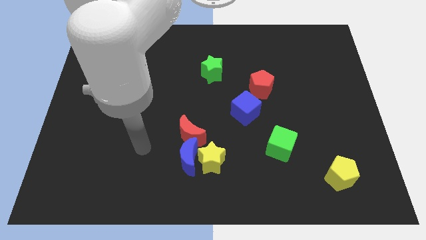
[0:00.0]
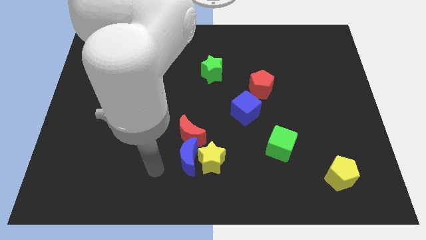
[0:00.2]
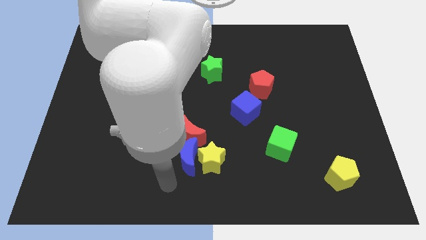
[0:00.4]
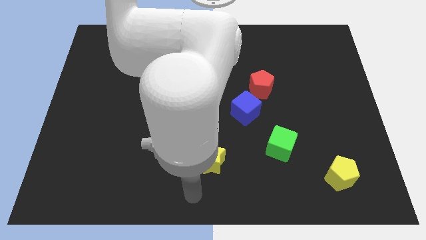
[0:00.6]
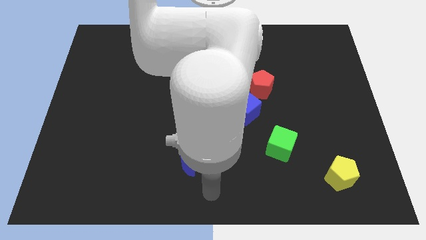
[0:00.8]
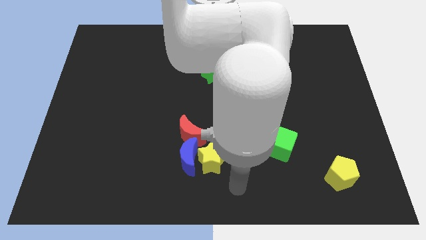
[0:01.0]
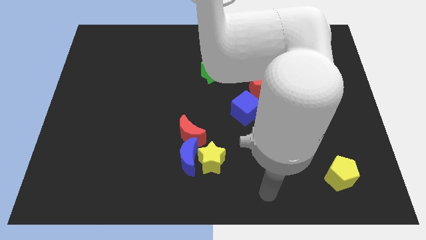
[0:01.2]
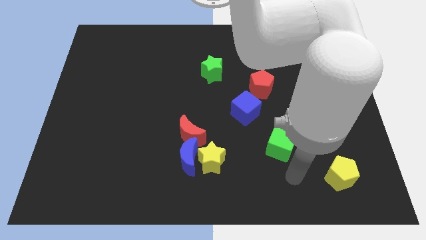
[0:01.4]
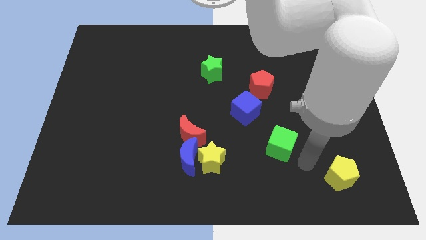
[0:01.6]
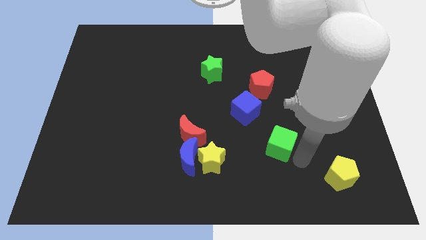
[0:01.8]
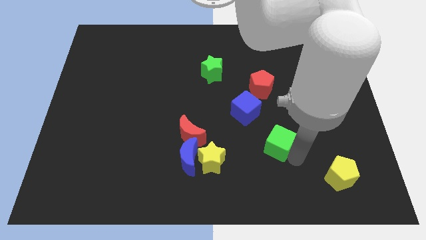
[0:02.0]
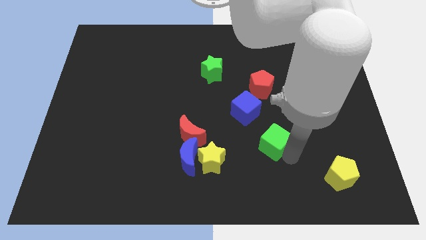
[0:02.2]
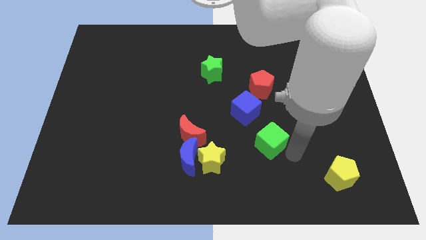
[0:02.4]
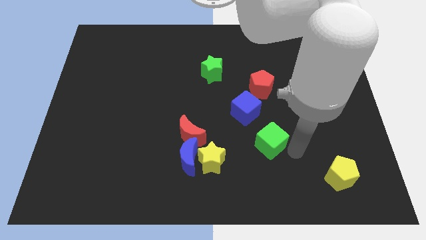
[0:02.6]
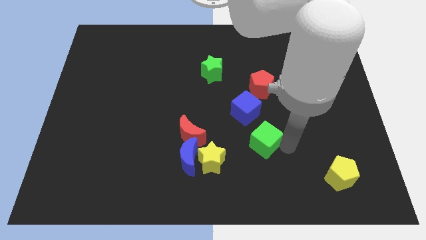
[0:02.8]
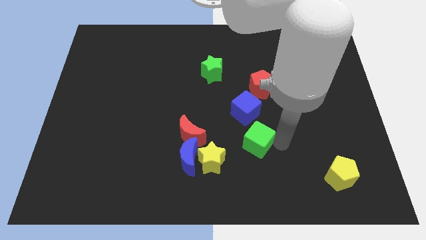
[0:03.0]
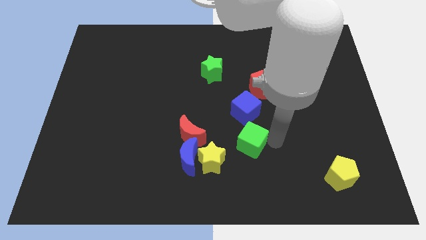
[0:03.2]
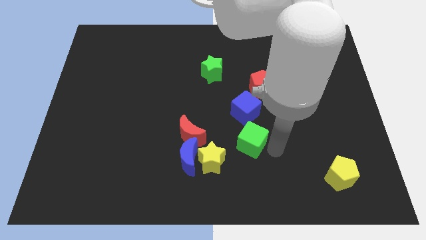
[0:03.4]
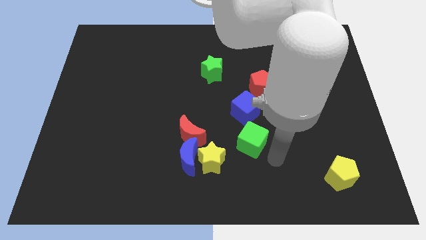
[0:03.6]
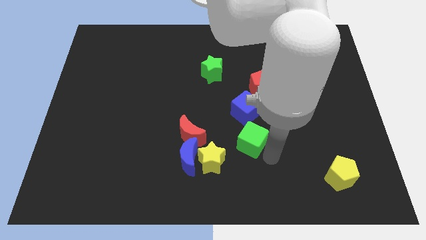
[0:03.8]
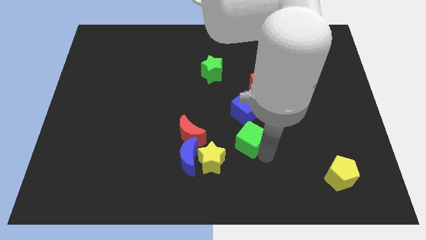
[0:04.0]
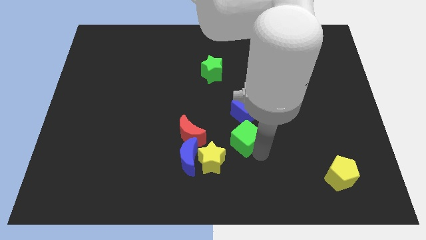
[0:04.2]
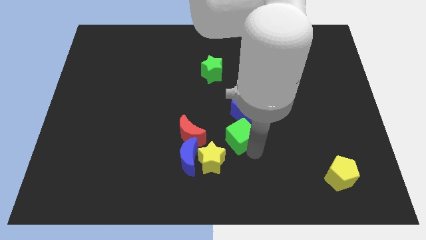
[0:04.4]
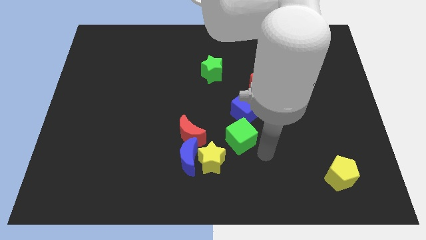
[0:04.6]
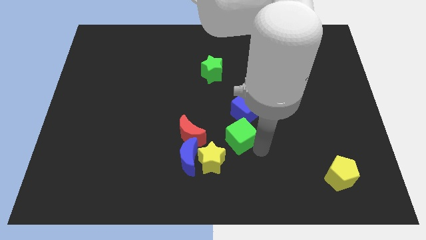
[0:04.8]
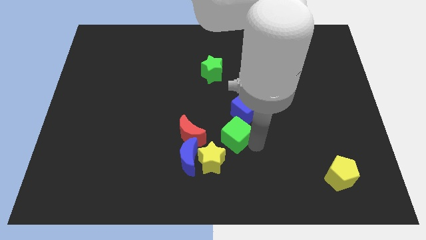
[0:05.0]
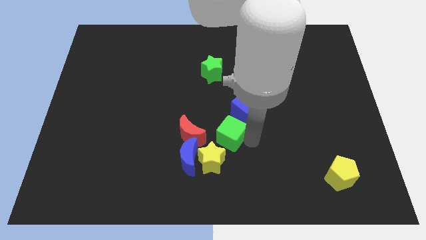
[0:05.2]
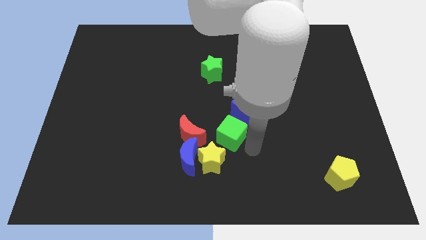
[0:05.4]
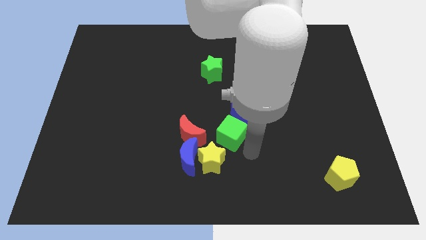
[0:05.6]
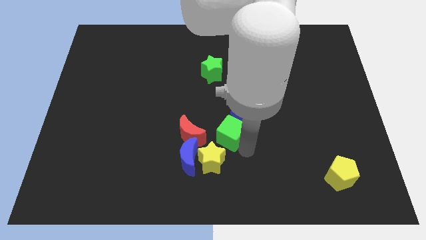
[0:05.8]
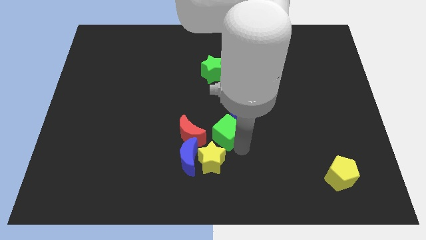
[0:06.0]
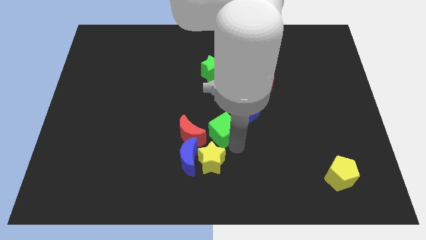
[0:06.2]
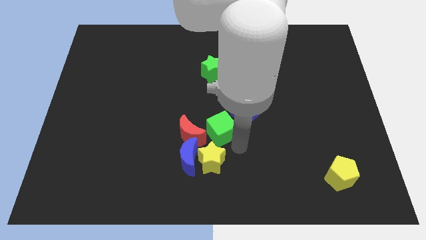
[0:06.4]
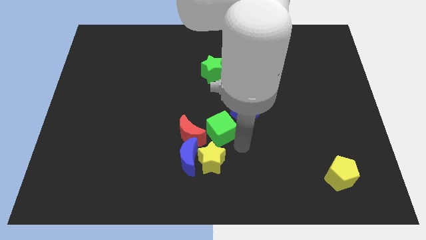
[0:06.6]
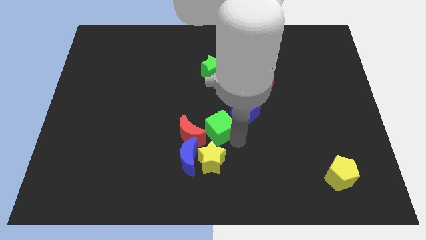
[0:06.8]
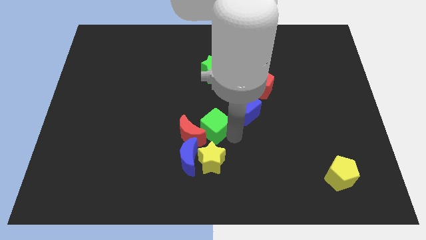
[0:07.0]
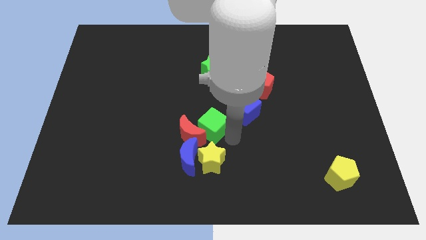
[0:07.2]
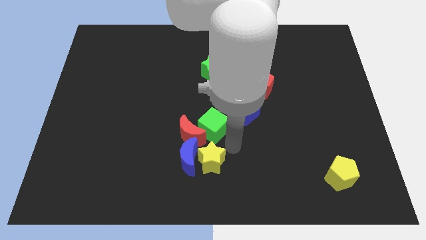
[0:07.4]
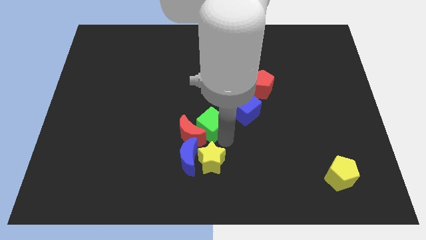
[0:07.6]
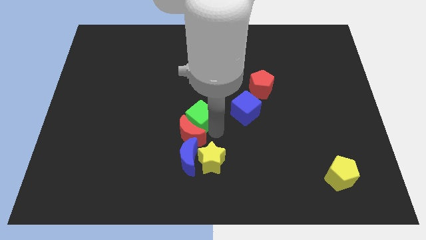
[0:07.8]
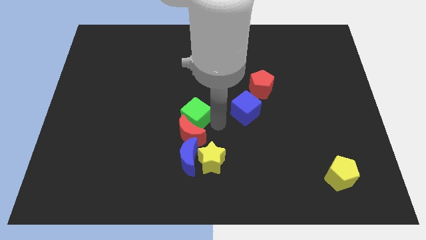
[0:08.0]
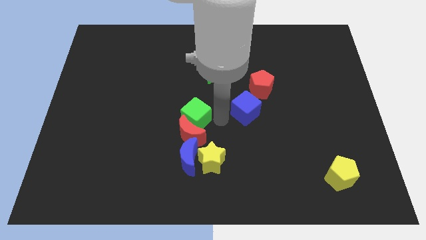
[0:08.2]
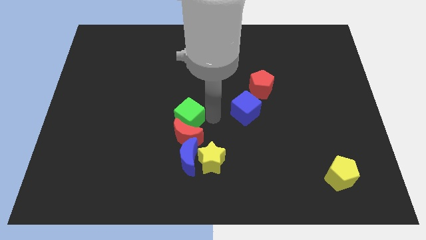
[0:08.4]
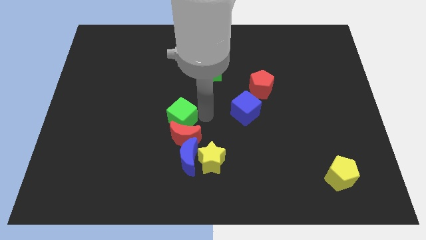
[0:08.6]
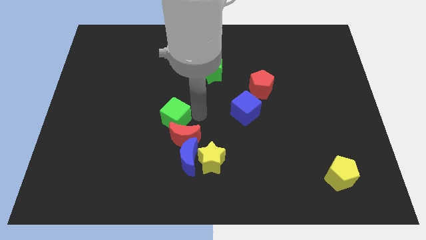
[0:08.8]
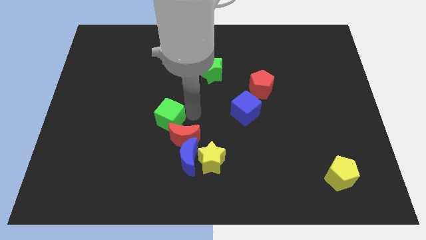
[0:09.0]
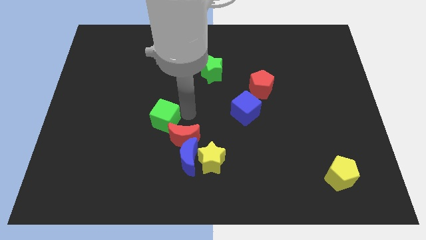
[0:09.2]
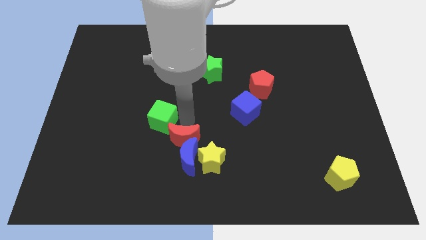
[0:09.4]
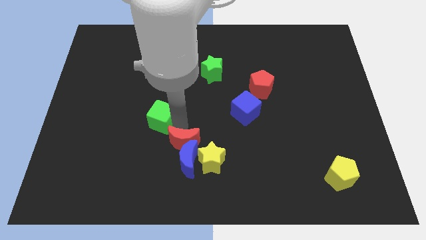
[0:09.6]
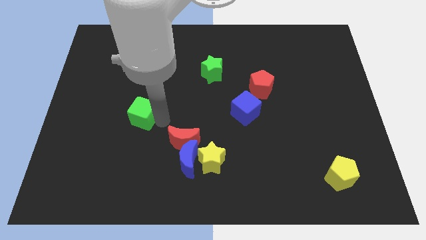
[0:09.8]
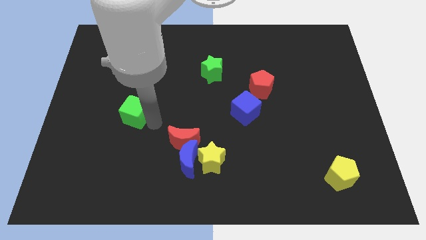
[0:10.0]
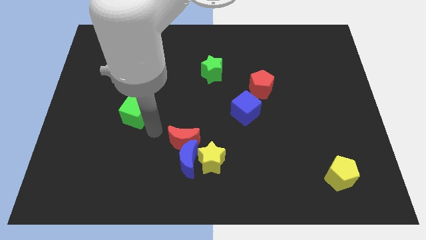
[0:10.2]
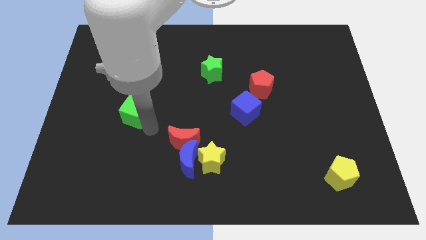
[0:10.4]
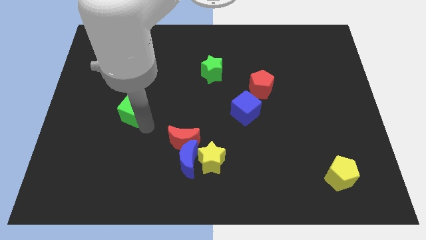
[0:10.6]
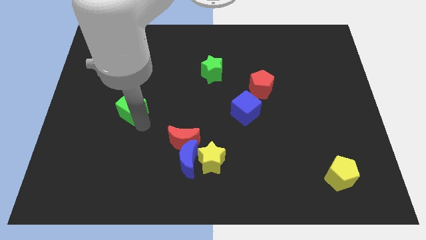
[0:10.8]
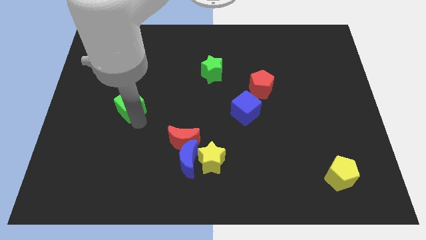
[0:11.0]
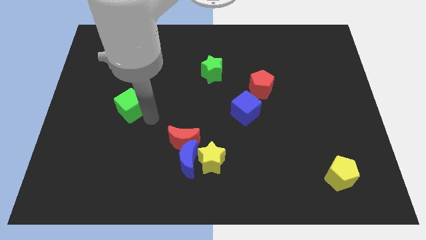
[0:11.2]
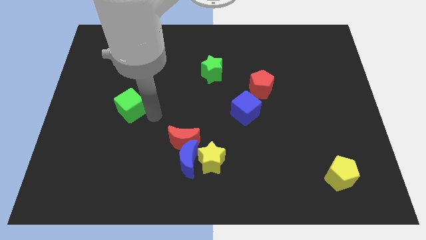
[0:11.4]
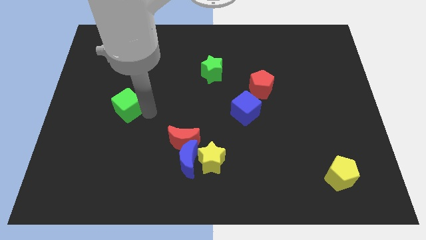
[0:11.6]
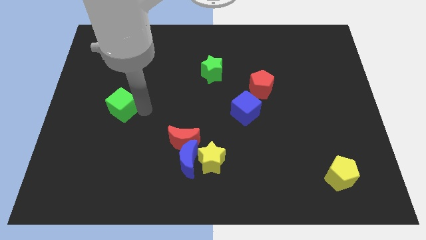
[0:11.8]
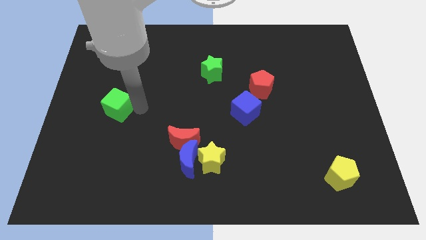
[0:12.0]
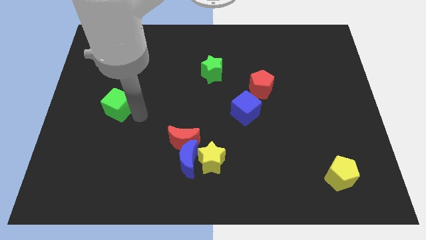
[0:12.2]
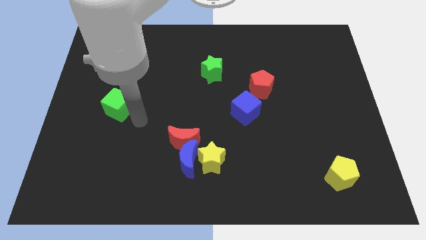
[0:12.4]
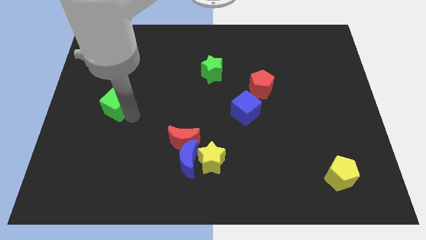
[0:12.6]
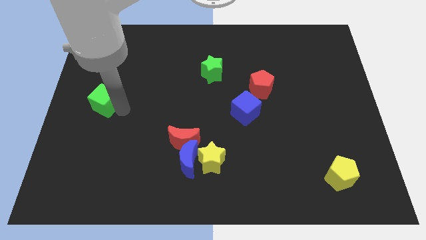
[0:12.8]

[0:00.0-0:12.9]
put the green cube to the left side
